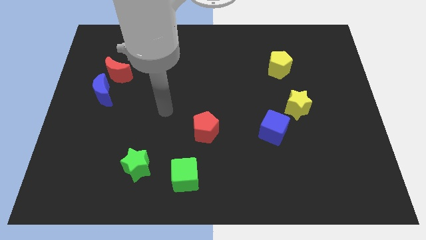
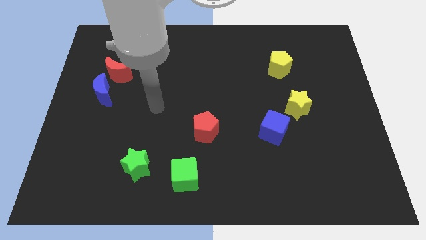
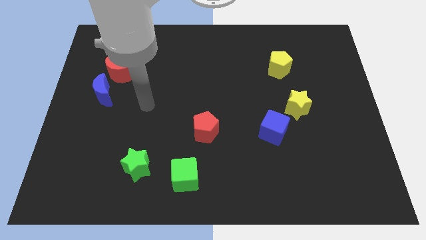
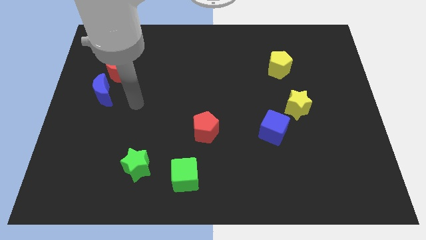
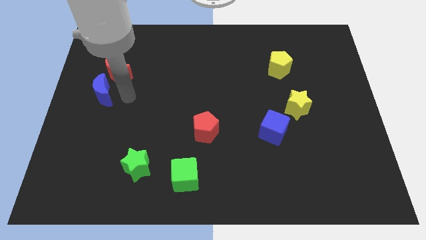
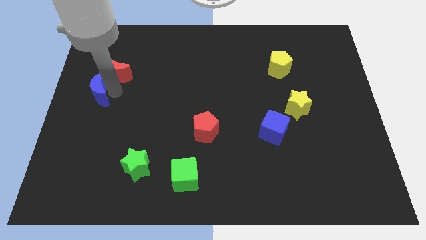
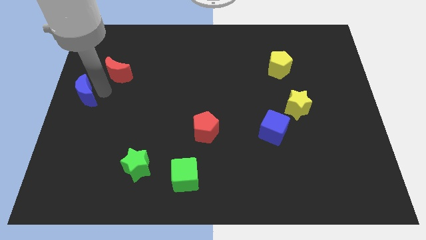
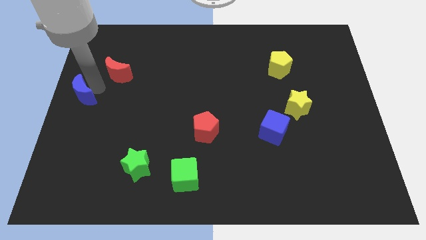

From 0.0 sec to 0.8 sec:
separate the red moon from the blue moon

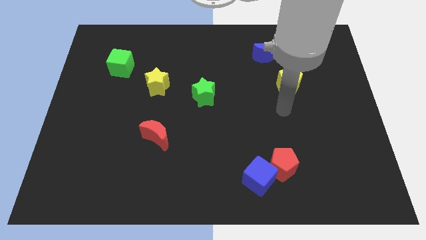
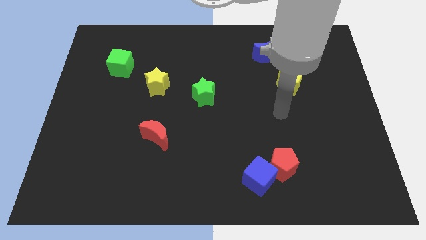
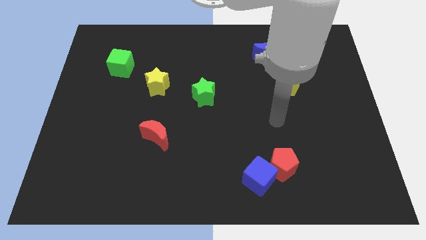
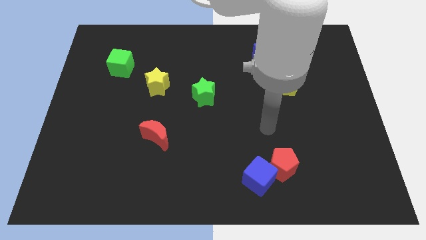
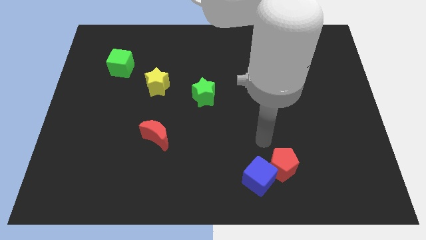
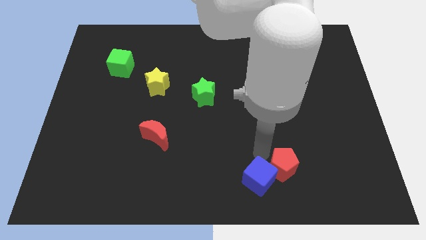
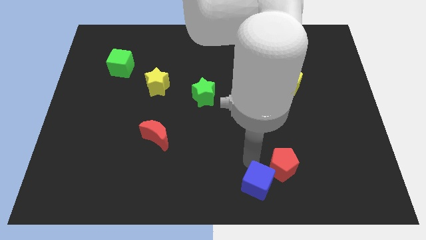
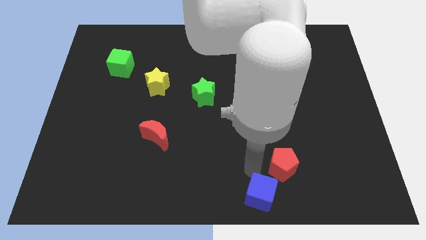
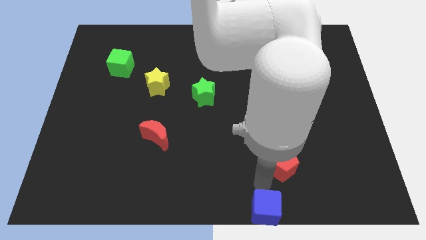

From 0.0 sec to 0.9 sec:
pull the red pentagon apart from the blue cube

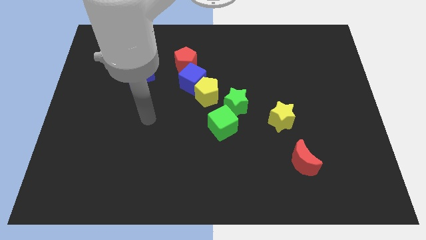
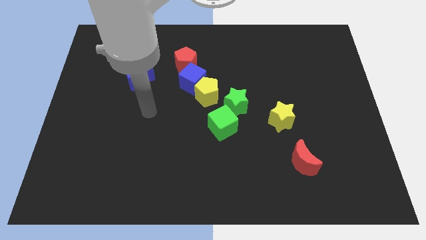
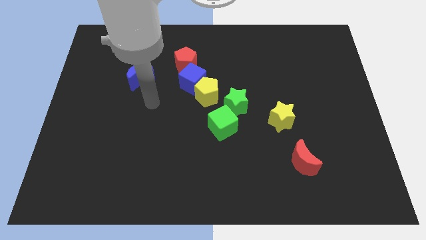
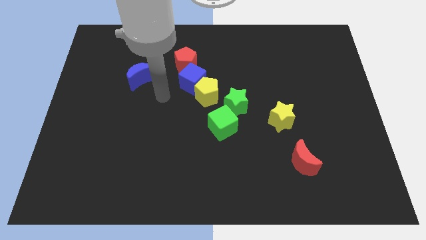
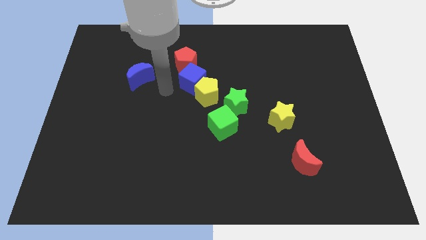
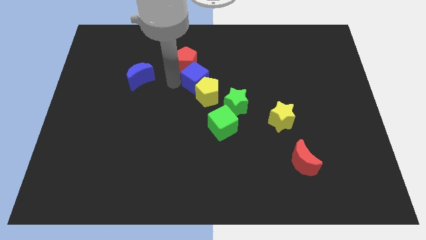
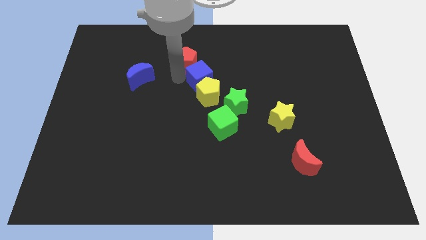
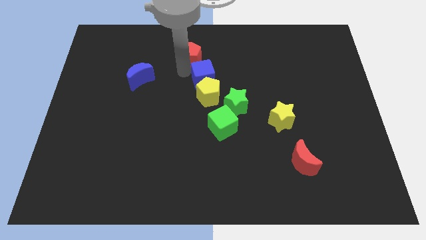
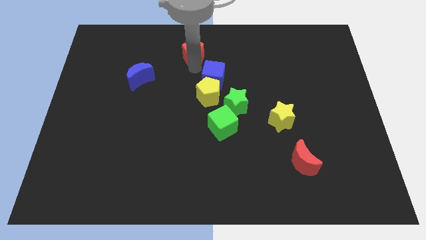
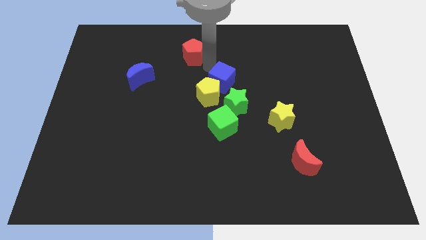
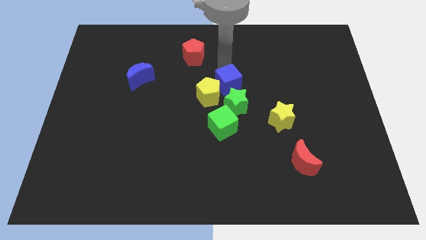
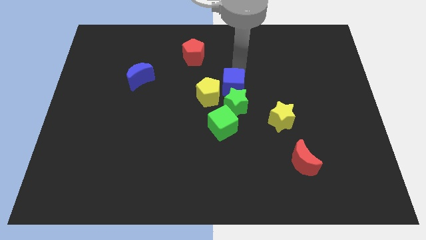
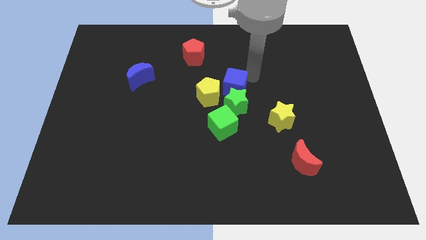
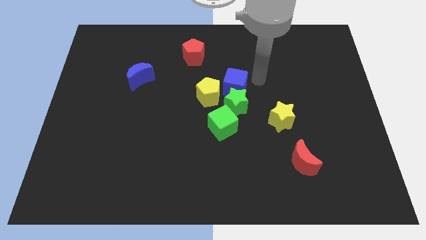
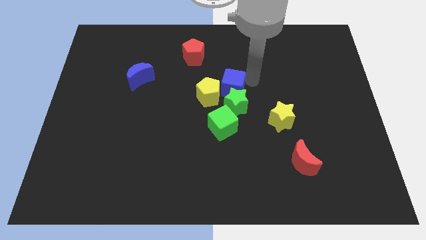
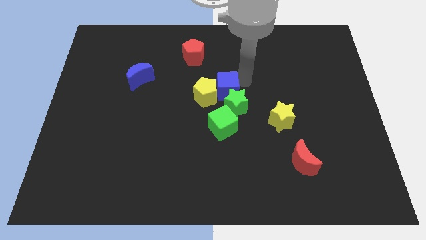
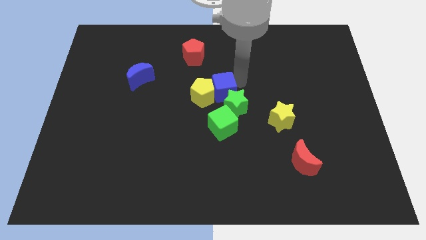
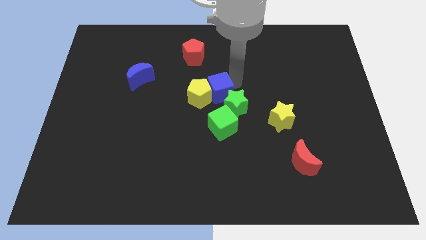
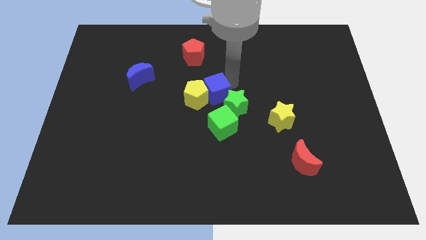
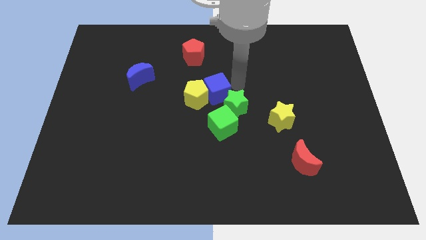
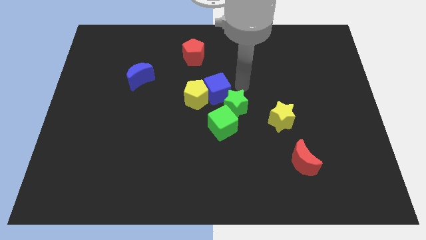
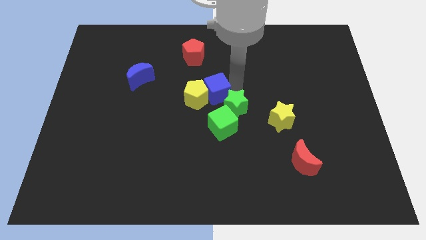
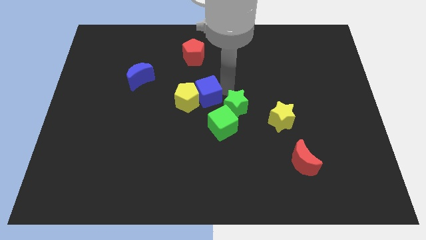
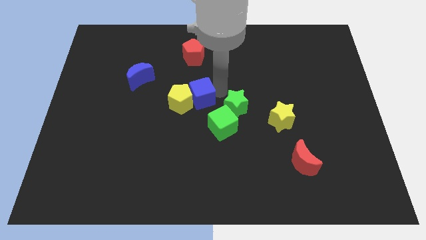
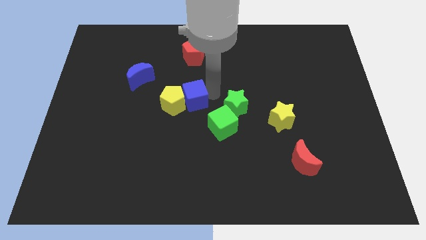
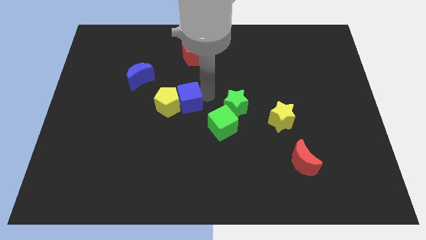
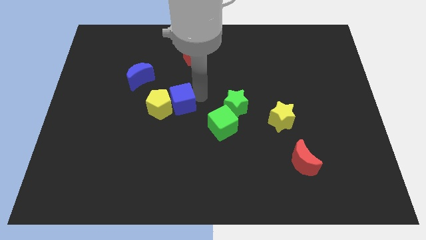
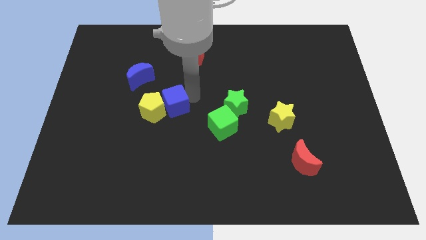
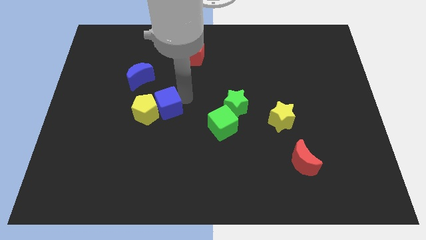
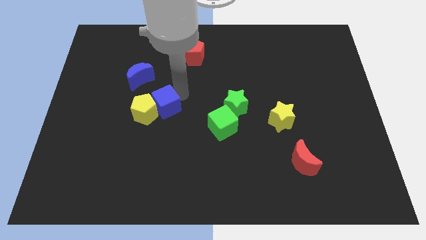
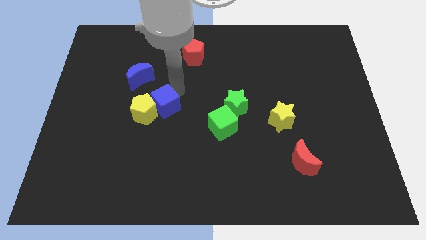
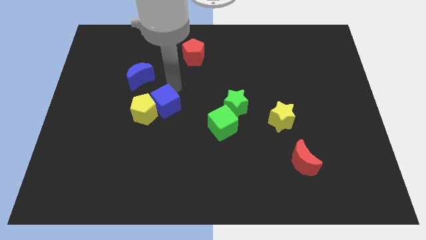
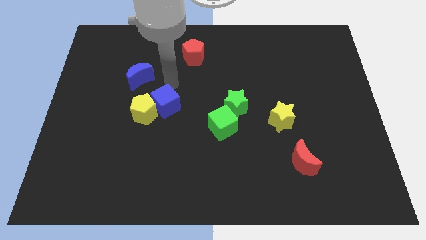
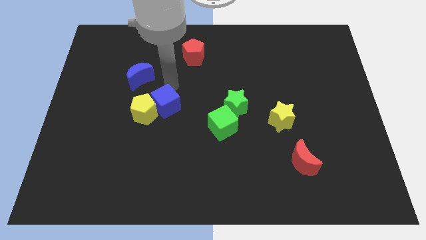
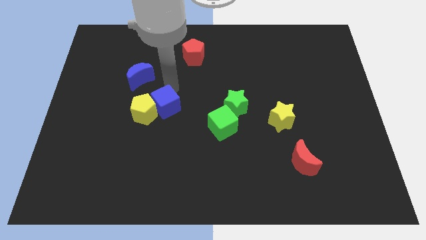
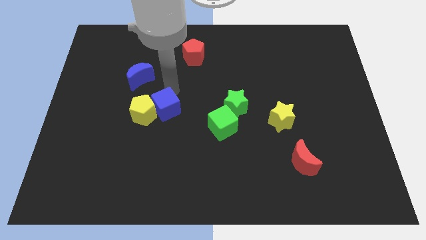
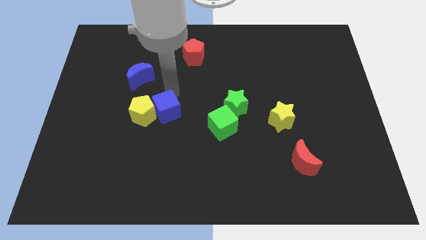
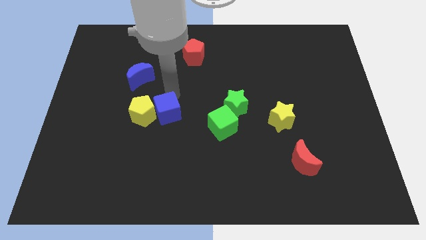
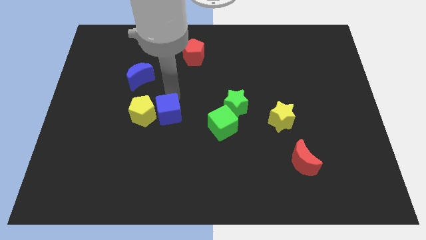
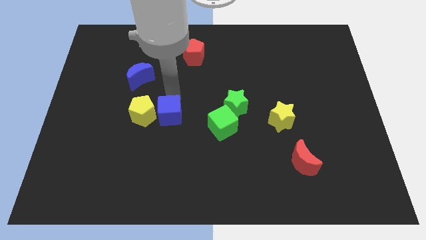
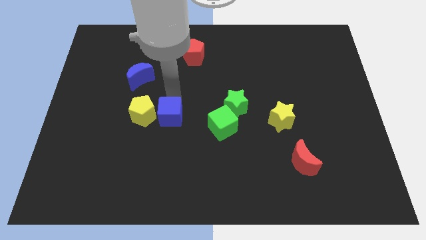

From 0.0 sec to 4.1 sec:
move the blue cube away from the yellow pentagon and red pentagon

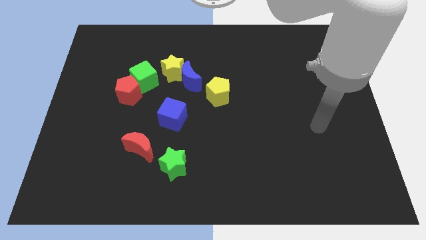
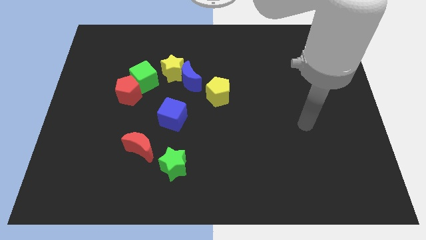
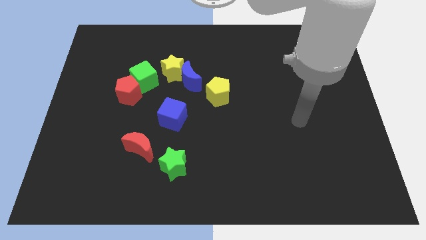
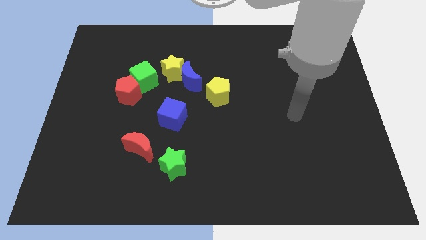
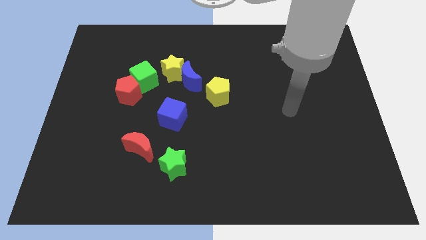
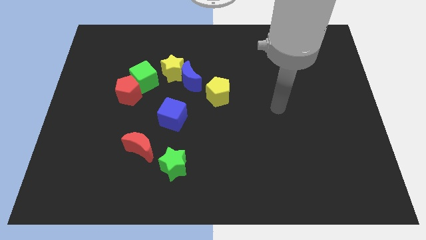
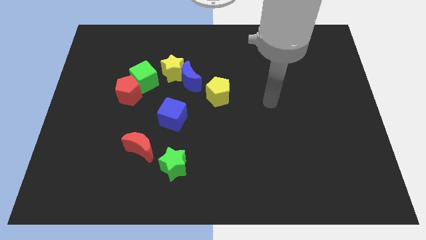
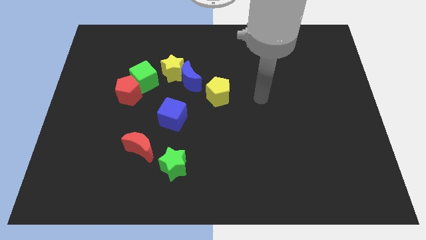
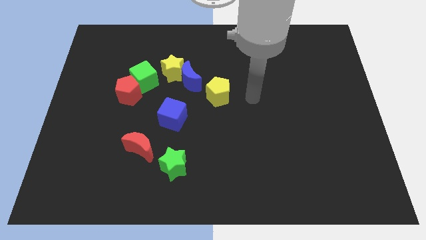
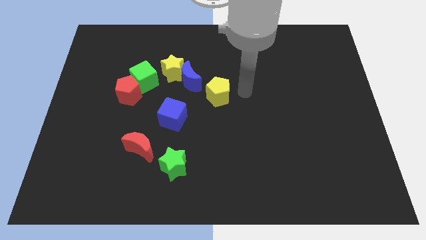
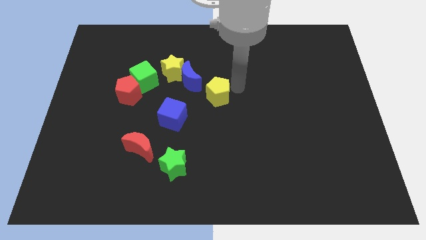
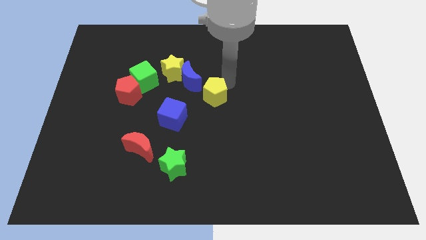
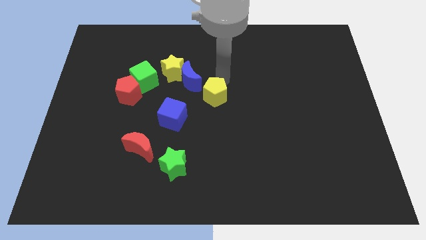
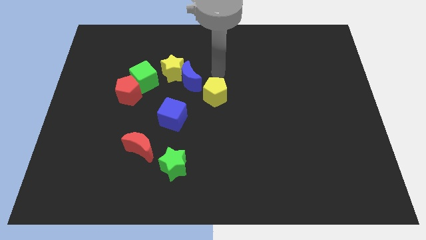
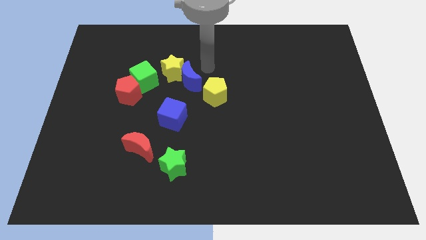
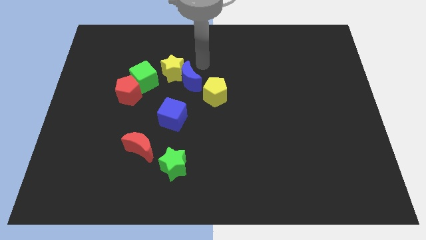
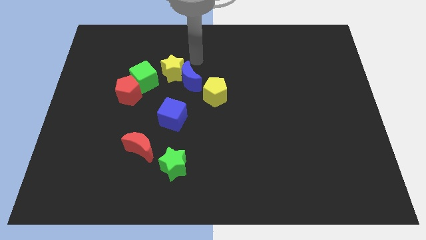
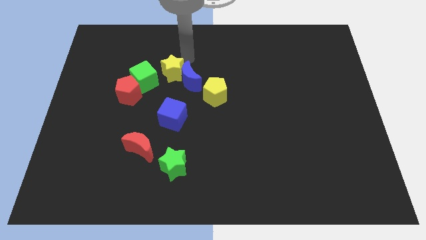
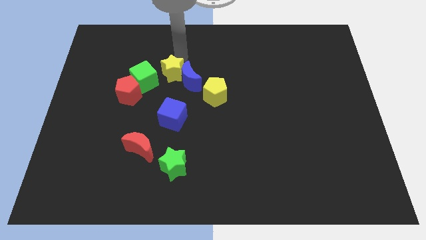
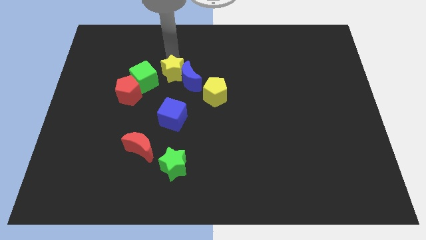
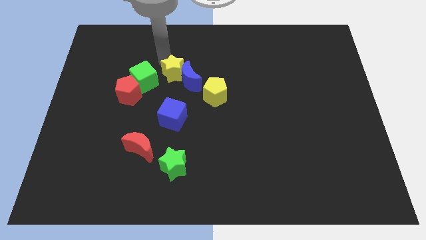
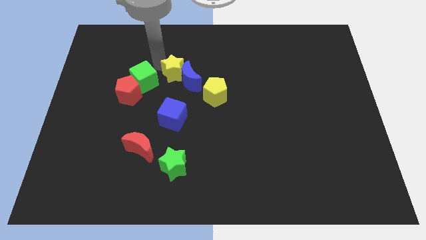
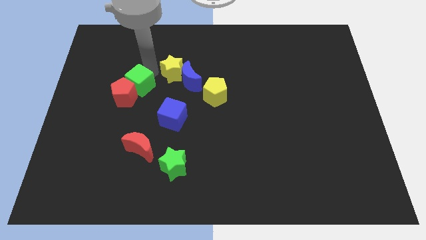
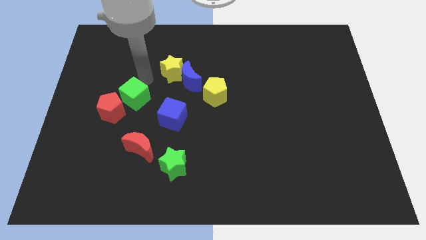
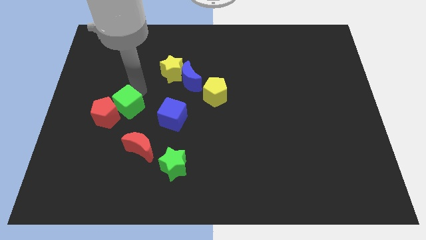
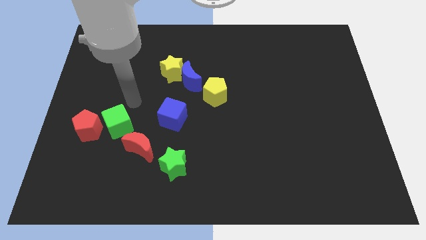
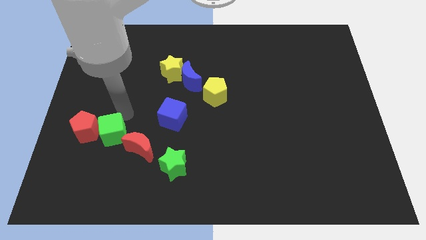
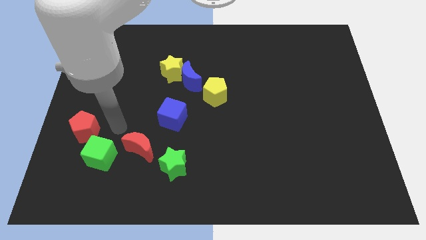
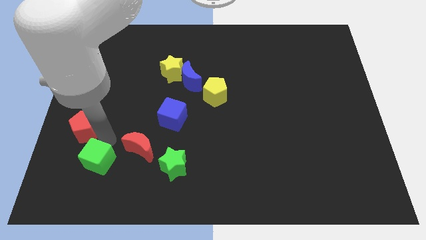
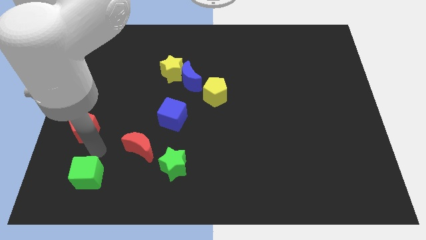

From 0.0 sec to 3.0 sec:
move the red pentagon away from the green cube

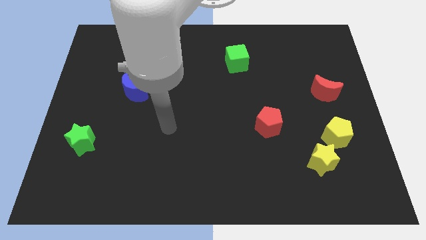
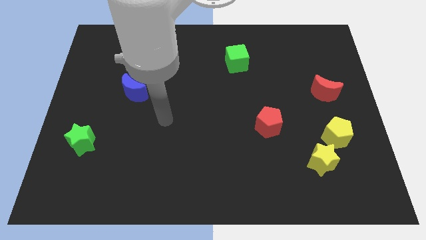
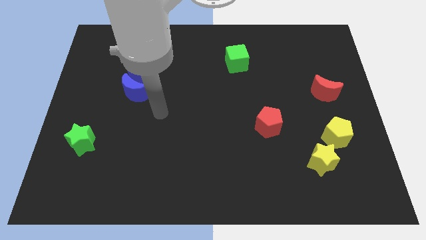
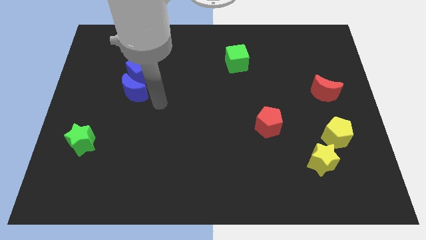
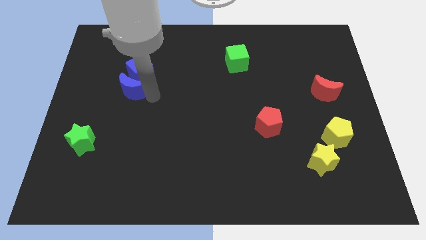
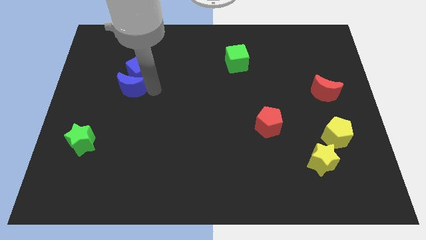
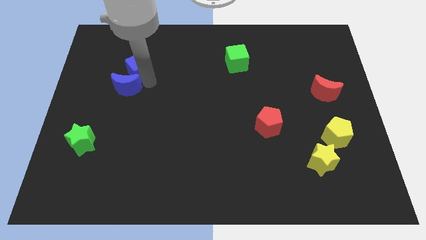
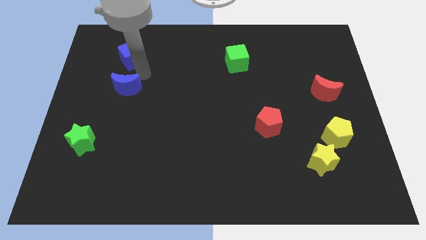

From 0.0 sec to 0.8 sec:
separate the blue moon from the blue cube
